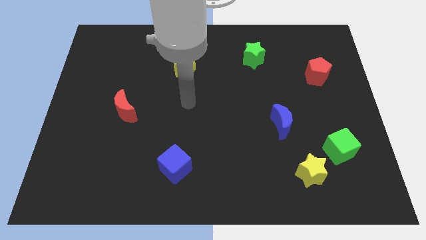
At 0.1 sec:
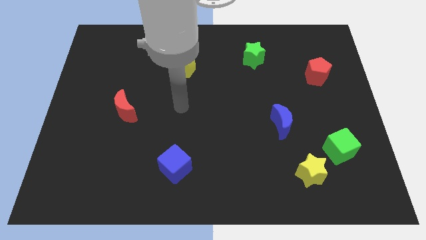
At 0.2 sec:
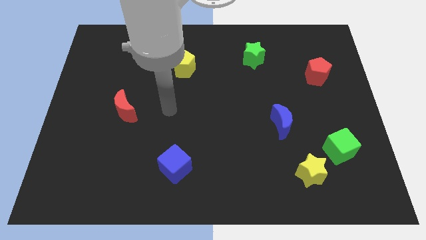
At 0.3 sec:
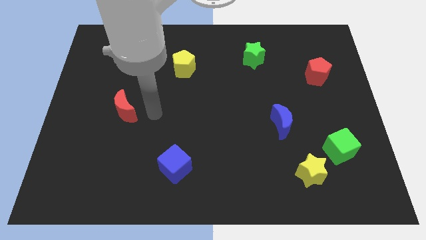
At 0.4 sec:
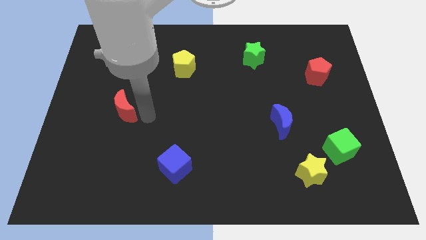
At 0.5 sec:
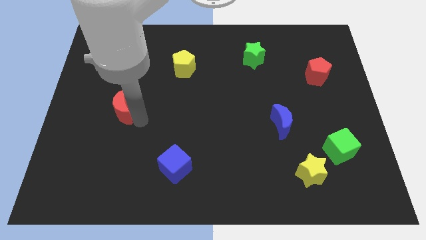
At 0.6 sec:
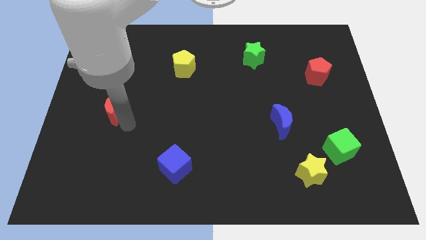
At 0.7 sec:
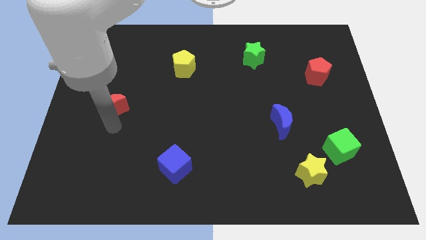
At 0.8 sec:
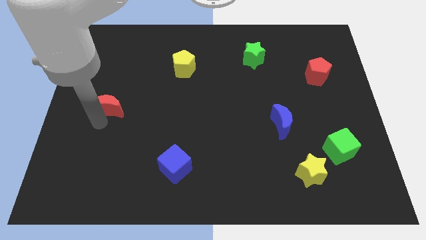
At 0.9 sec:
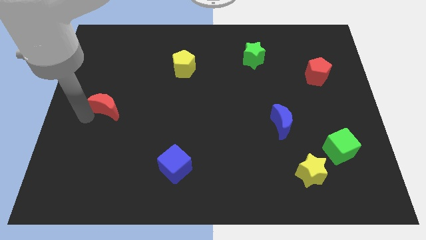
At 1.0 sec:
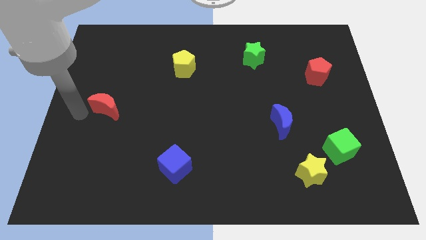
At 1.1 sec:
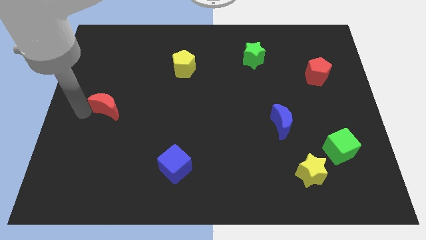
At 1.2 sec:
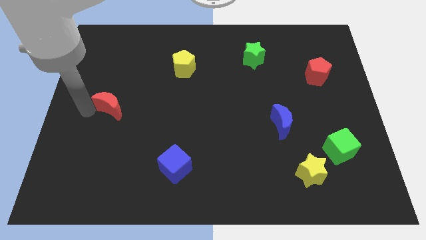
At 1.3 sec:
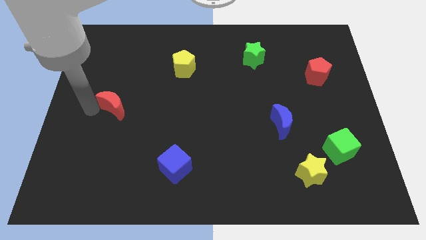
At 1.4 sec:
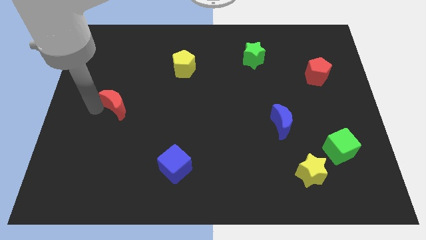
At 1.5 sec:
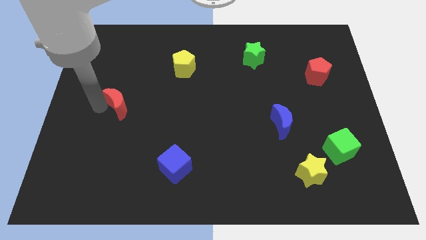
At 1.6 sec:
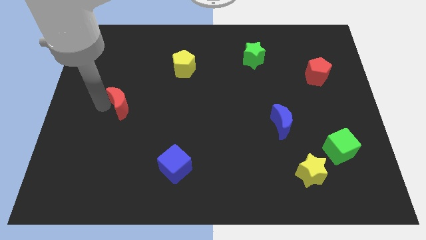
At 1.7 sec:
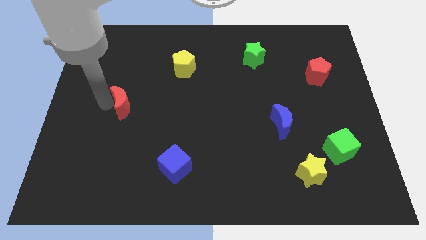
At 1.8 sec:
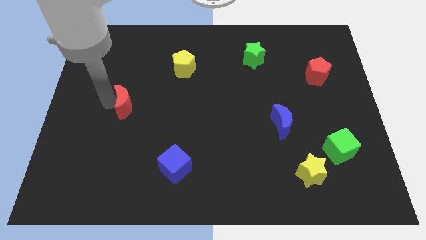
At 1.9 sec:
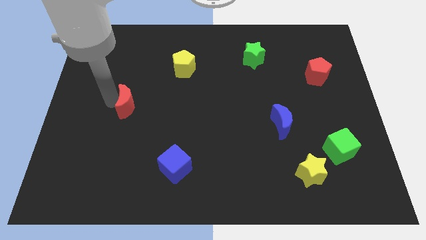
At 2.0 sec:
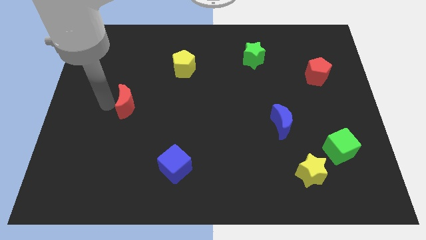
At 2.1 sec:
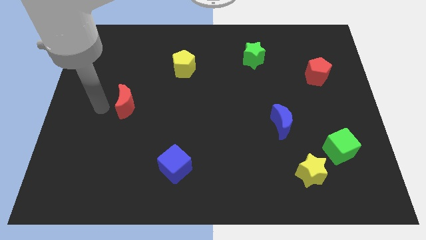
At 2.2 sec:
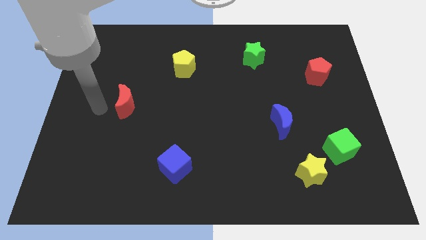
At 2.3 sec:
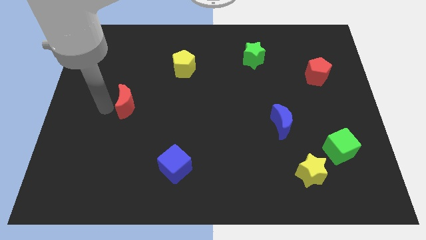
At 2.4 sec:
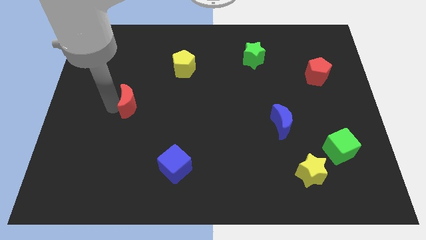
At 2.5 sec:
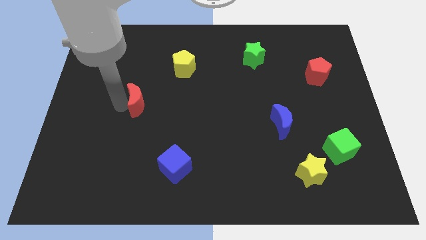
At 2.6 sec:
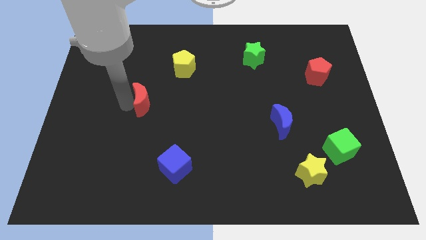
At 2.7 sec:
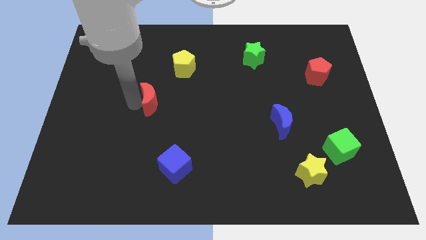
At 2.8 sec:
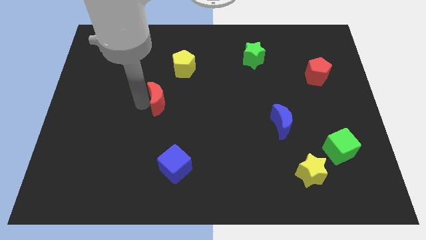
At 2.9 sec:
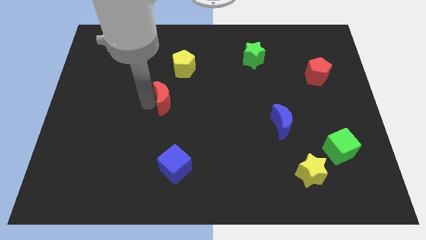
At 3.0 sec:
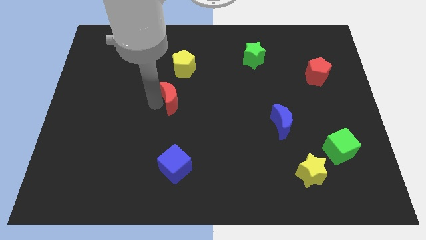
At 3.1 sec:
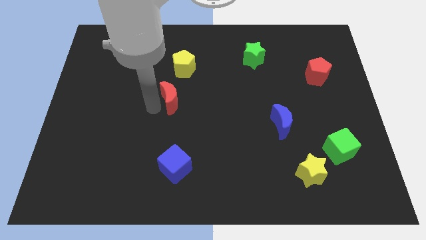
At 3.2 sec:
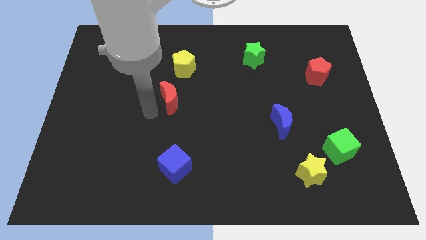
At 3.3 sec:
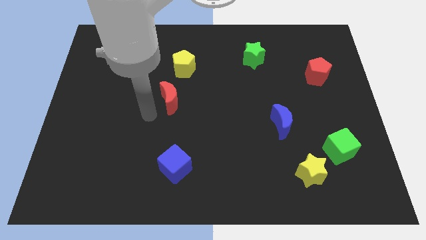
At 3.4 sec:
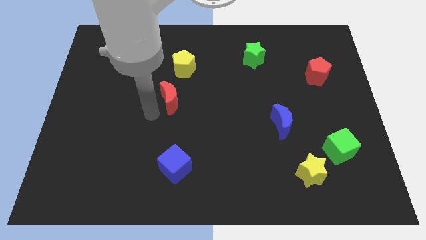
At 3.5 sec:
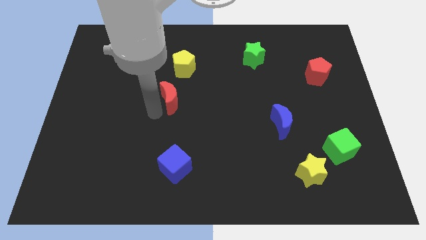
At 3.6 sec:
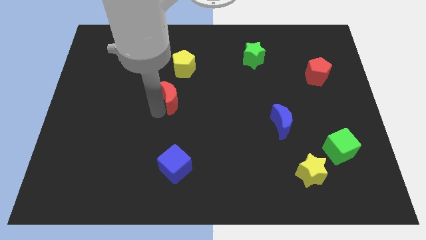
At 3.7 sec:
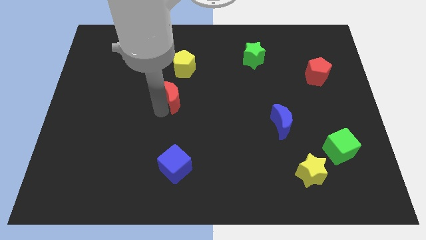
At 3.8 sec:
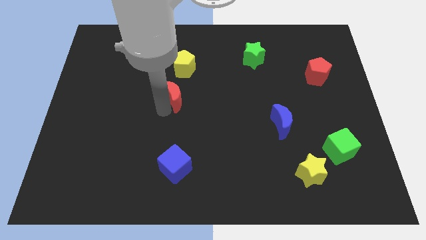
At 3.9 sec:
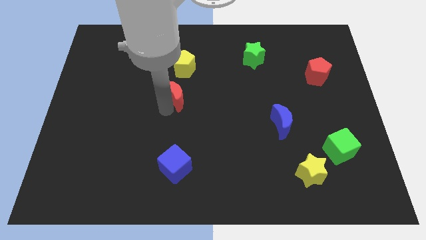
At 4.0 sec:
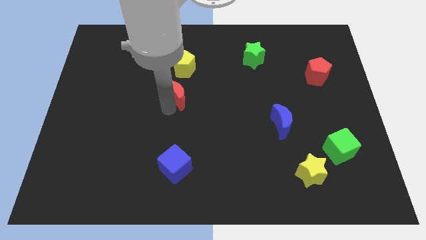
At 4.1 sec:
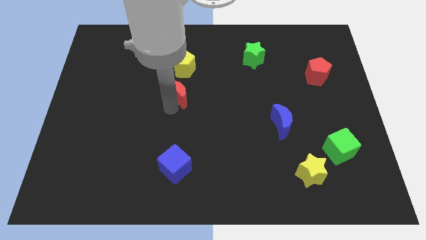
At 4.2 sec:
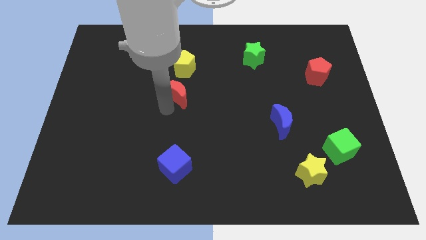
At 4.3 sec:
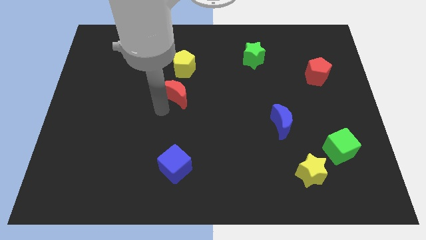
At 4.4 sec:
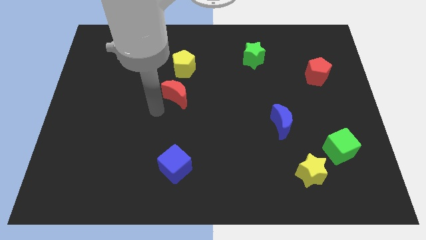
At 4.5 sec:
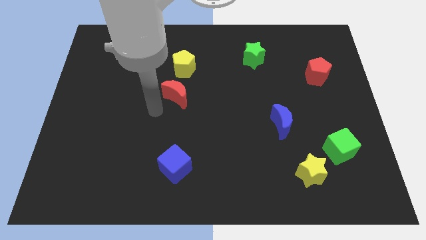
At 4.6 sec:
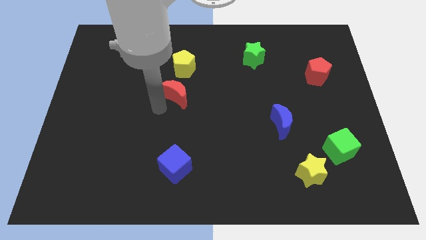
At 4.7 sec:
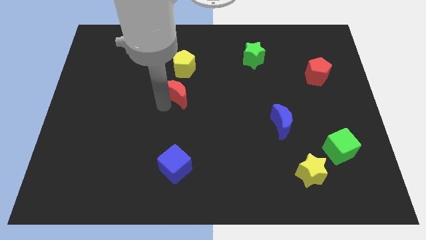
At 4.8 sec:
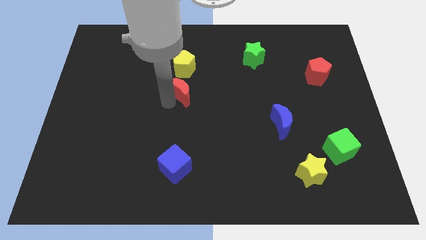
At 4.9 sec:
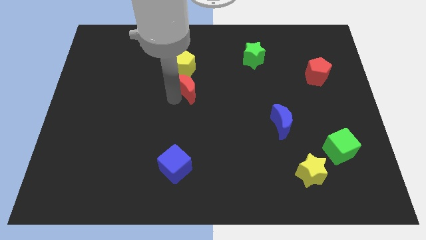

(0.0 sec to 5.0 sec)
put the red moon diagonally down and to the right of the yellow pentagon

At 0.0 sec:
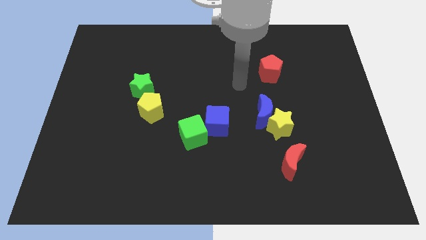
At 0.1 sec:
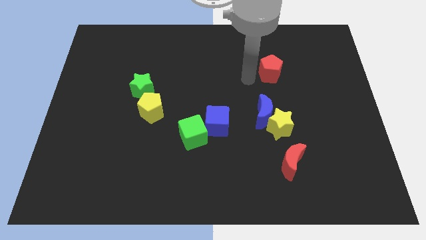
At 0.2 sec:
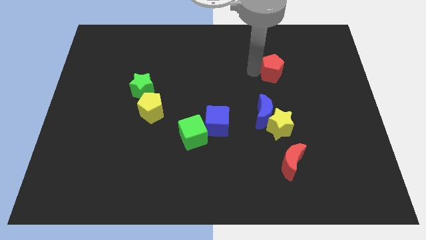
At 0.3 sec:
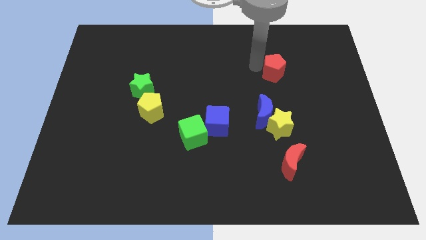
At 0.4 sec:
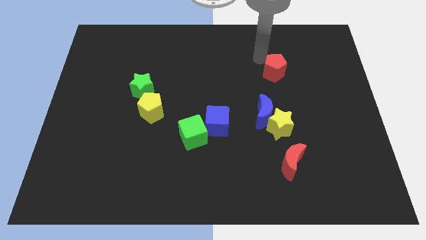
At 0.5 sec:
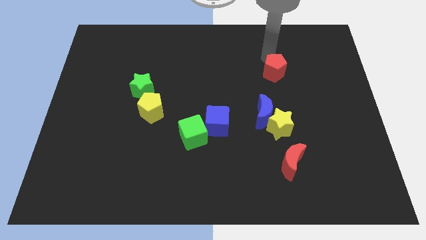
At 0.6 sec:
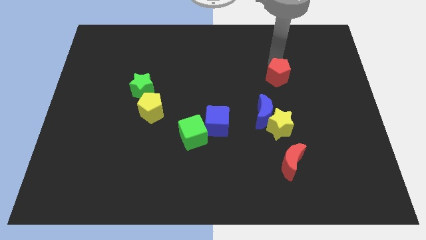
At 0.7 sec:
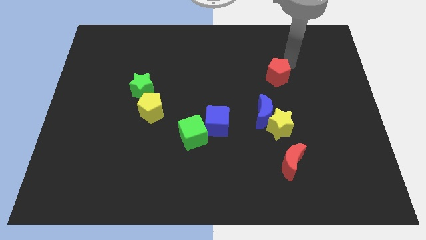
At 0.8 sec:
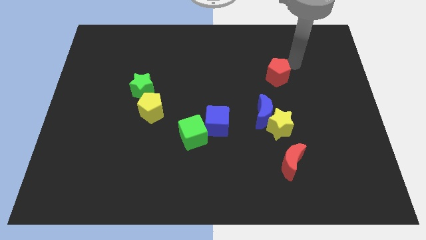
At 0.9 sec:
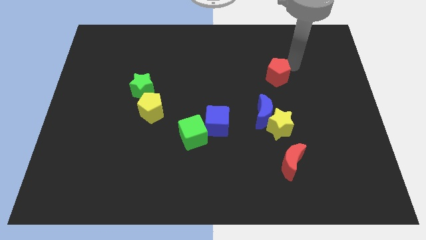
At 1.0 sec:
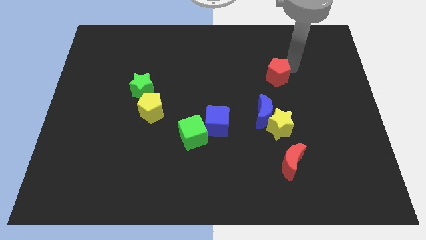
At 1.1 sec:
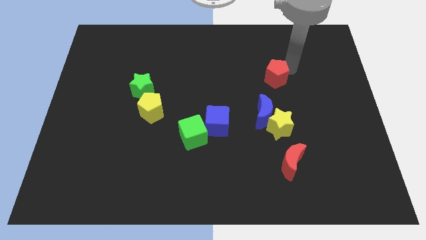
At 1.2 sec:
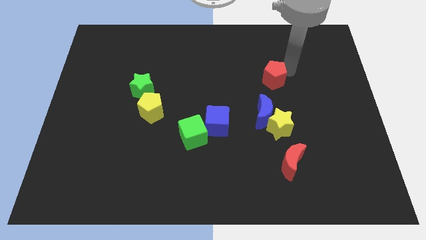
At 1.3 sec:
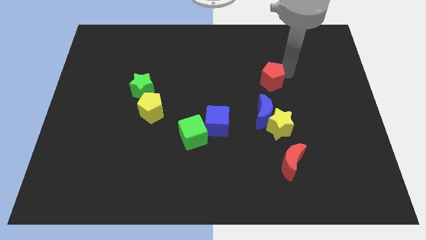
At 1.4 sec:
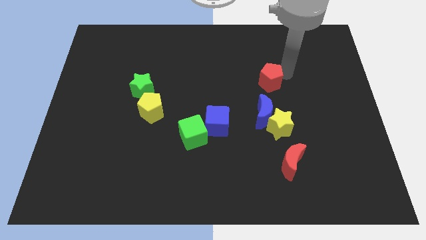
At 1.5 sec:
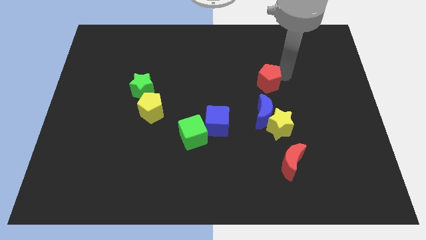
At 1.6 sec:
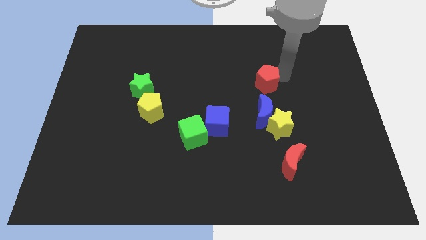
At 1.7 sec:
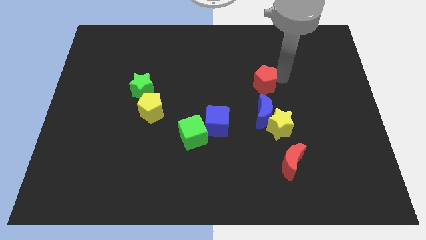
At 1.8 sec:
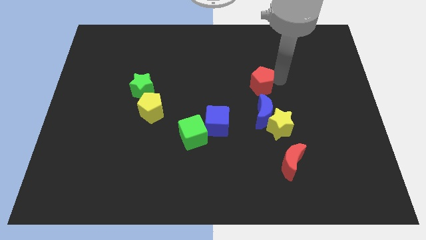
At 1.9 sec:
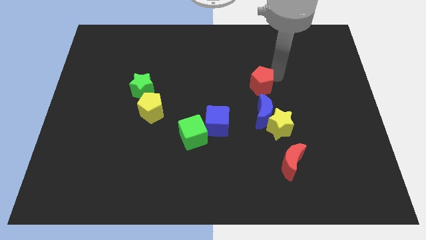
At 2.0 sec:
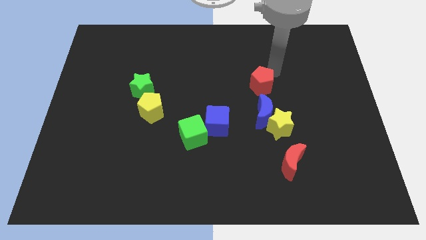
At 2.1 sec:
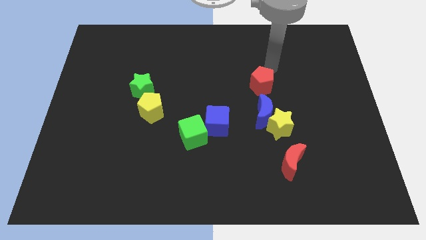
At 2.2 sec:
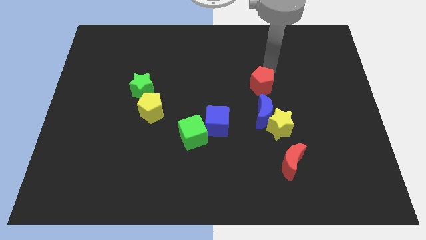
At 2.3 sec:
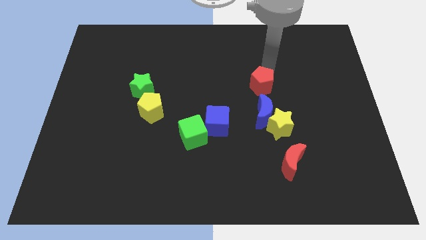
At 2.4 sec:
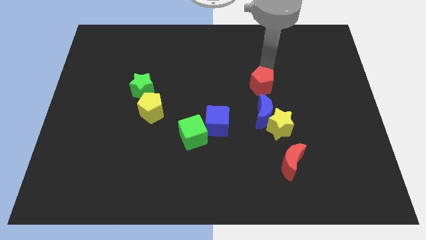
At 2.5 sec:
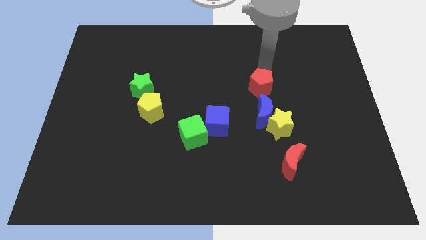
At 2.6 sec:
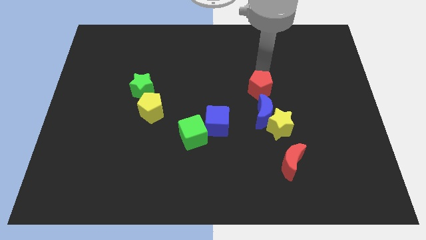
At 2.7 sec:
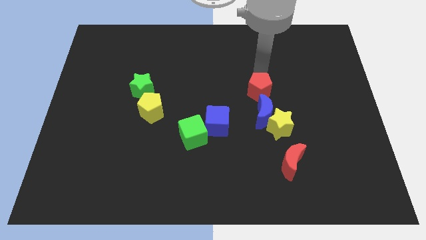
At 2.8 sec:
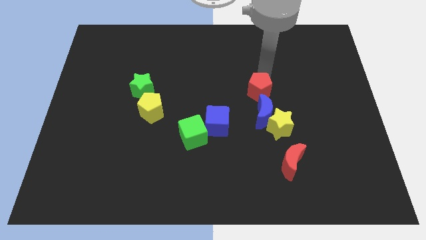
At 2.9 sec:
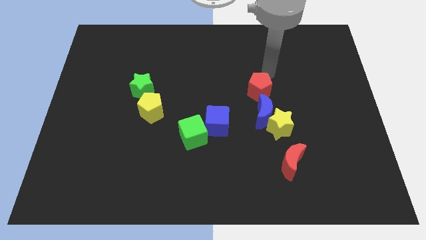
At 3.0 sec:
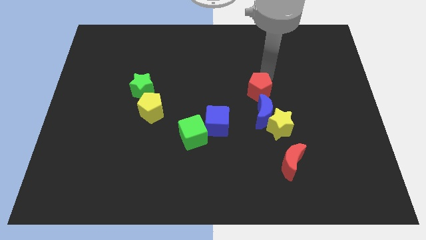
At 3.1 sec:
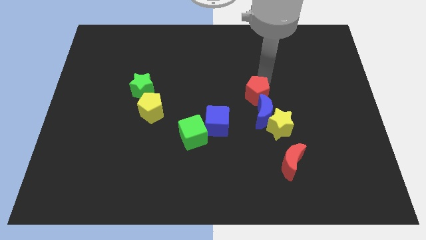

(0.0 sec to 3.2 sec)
slide the red pentagon diagonally up and to the left of the yellow star
